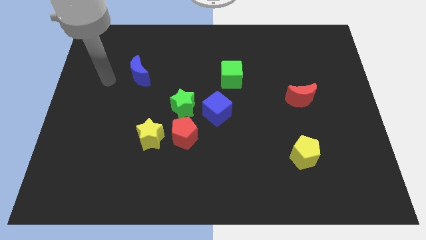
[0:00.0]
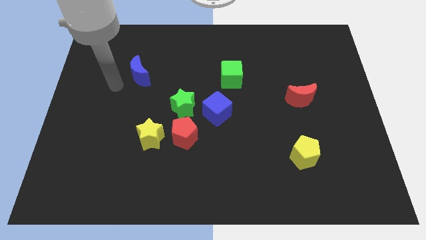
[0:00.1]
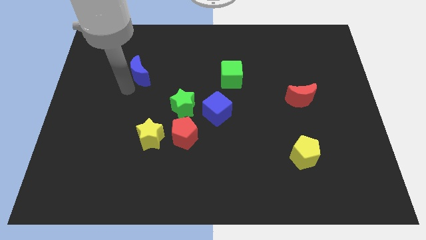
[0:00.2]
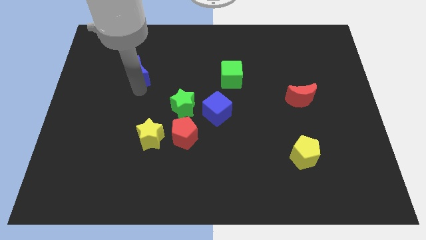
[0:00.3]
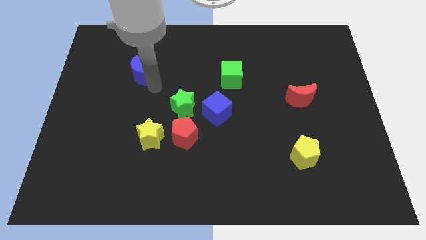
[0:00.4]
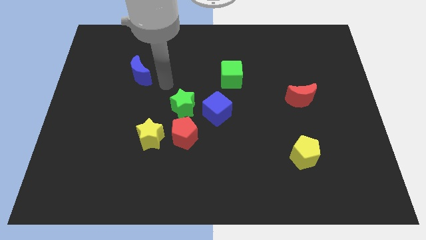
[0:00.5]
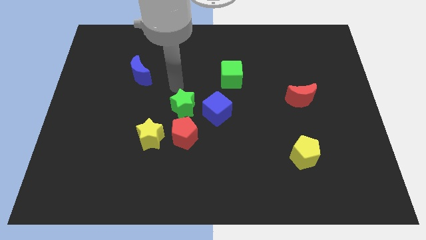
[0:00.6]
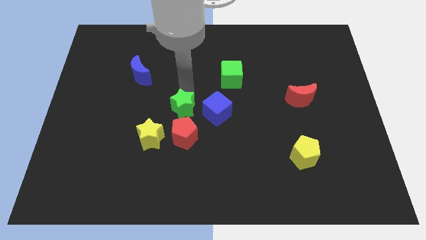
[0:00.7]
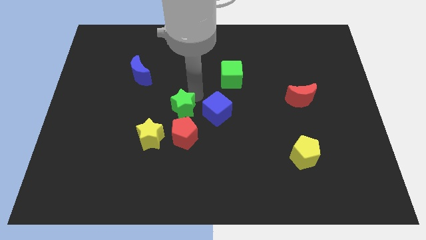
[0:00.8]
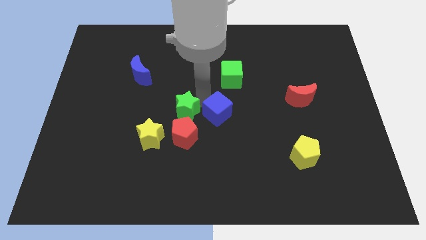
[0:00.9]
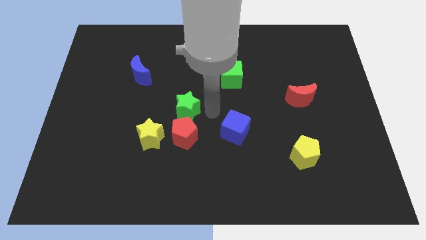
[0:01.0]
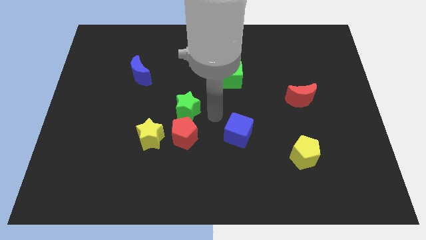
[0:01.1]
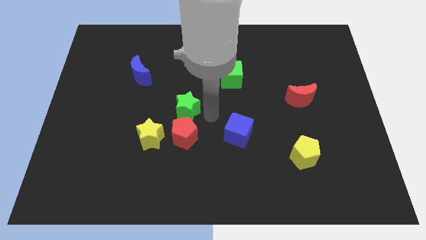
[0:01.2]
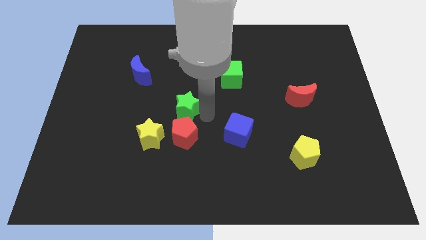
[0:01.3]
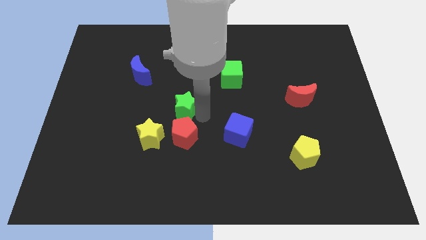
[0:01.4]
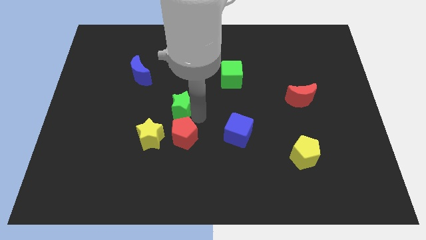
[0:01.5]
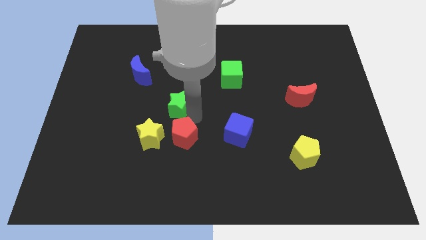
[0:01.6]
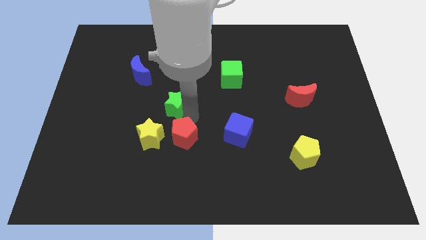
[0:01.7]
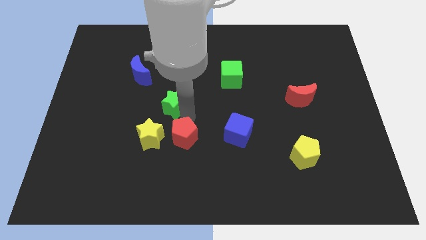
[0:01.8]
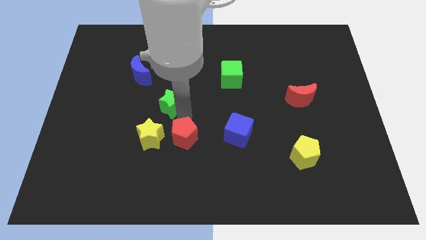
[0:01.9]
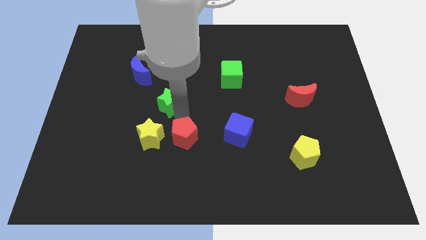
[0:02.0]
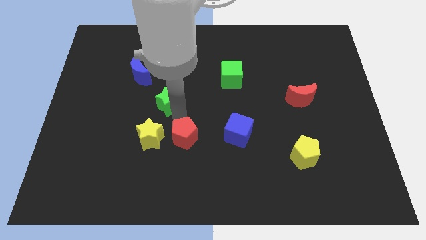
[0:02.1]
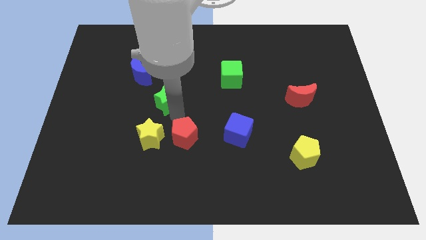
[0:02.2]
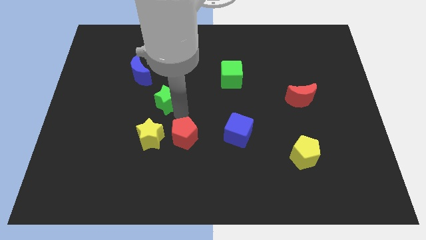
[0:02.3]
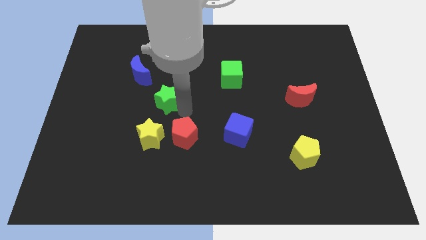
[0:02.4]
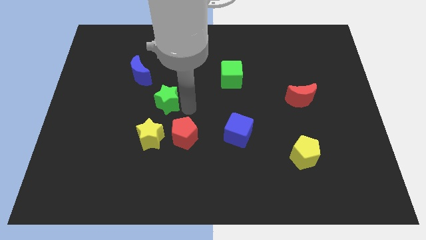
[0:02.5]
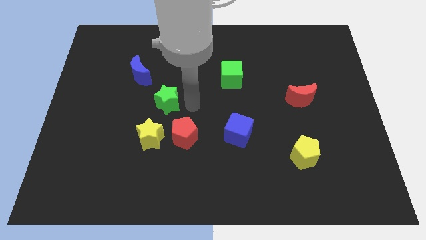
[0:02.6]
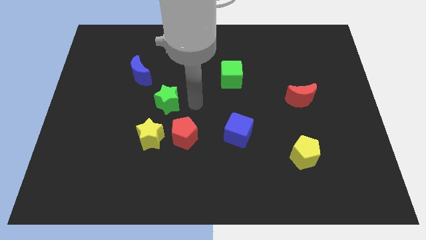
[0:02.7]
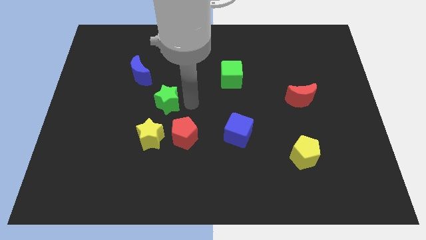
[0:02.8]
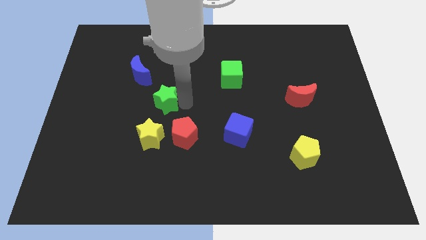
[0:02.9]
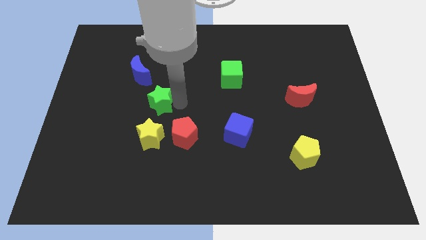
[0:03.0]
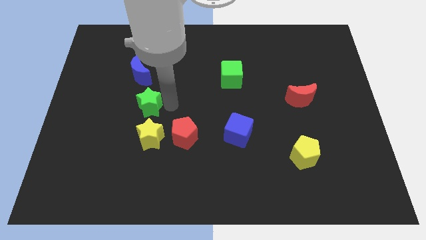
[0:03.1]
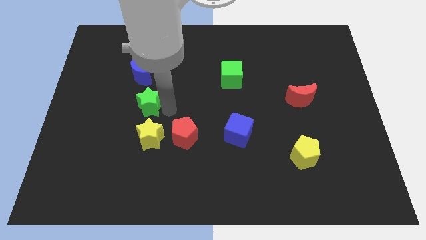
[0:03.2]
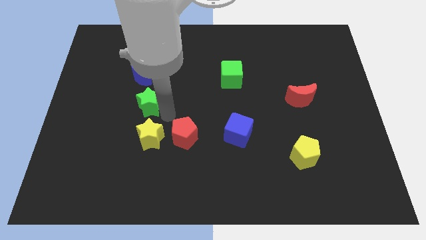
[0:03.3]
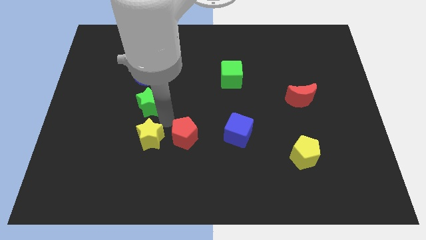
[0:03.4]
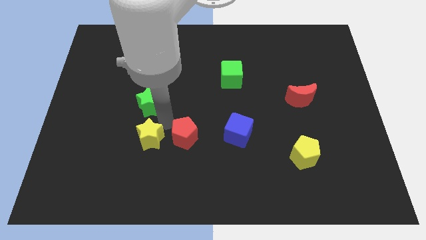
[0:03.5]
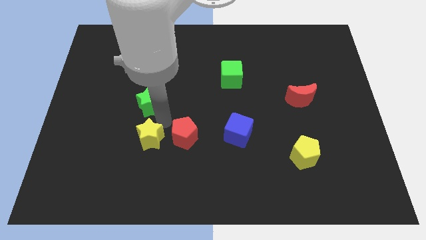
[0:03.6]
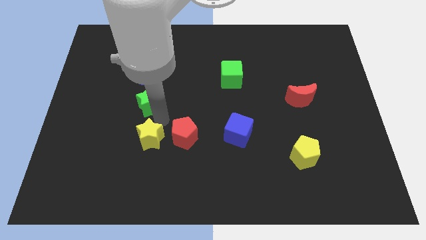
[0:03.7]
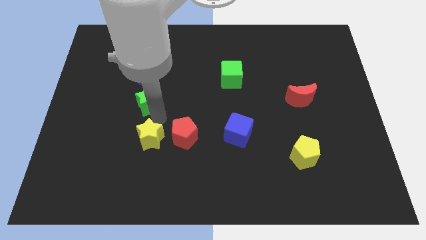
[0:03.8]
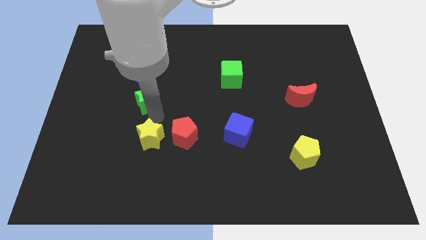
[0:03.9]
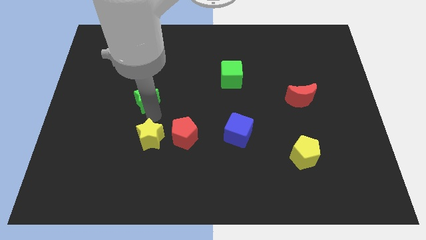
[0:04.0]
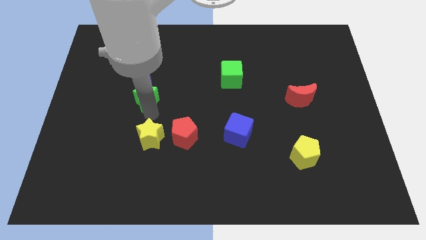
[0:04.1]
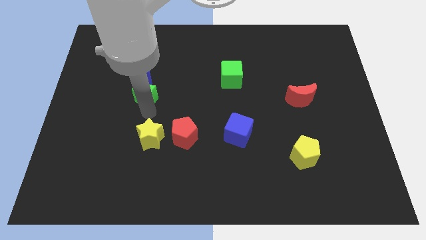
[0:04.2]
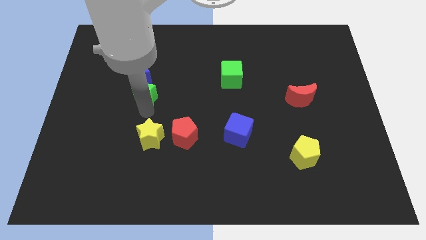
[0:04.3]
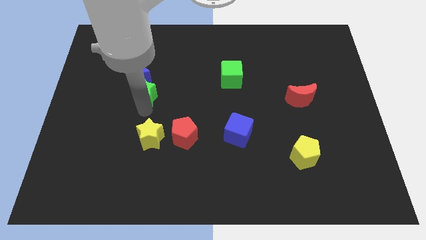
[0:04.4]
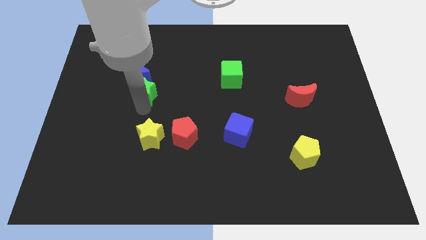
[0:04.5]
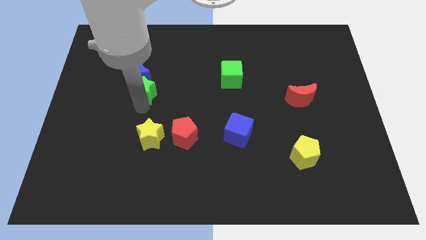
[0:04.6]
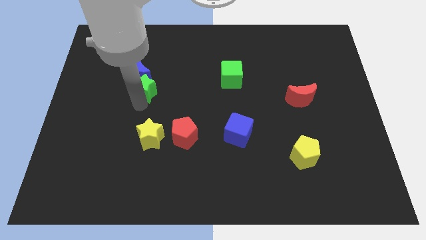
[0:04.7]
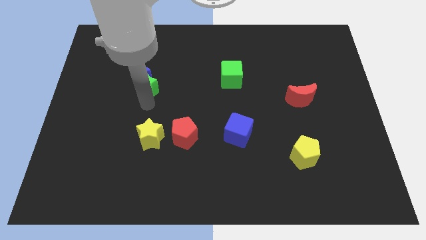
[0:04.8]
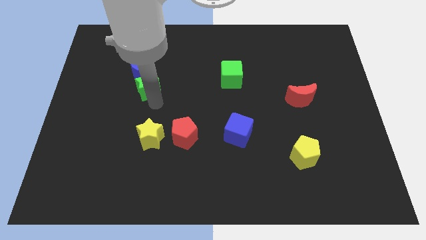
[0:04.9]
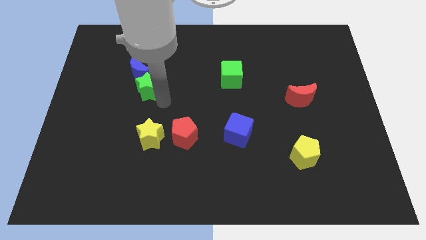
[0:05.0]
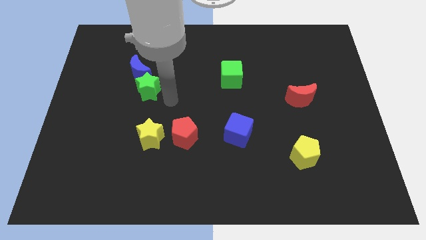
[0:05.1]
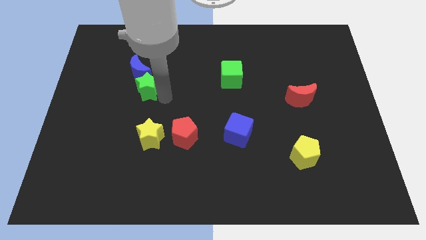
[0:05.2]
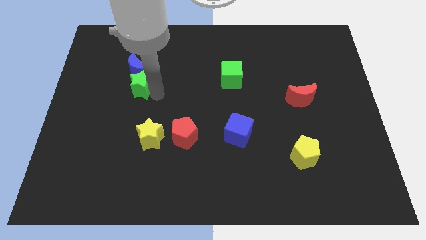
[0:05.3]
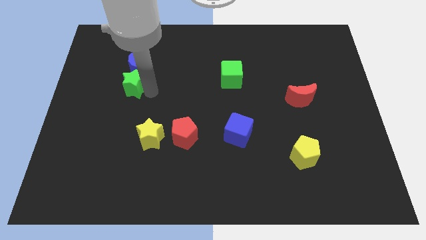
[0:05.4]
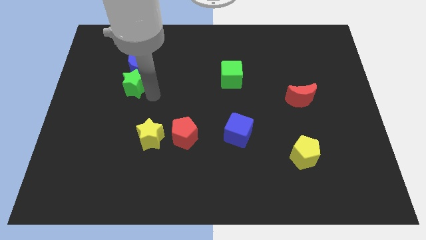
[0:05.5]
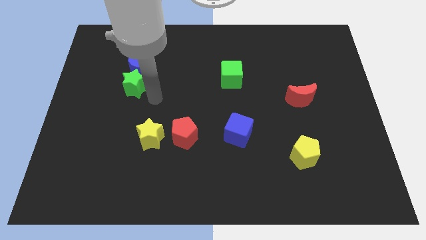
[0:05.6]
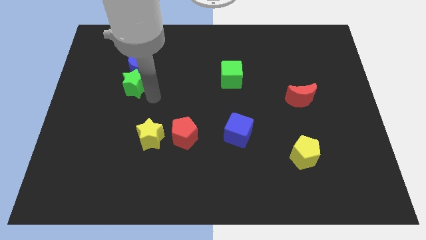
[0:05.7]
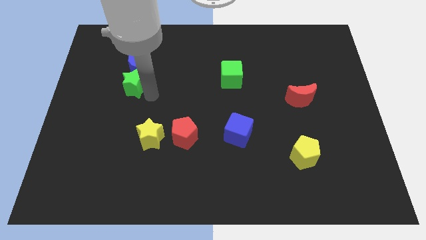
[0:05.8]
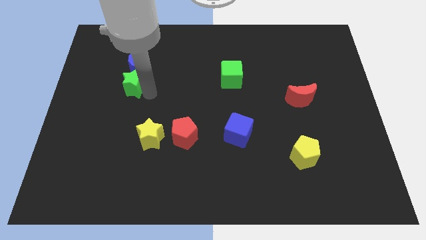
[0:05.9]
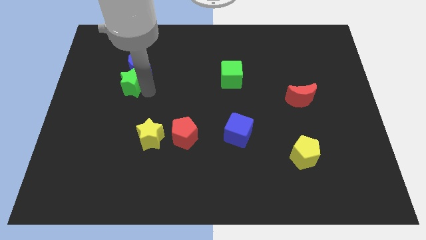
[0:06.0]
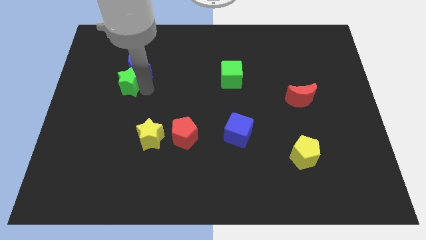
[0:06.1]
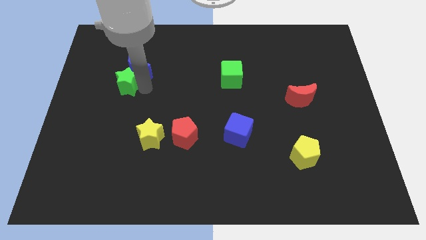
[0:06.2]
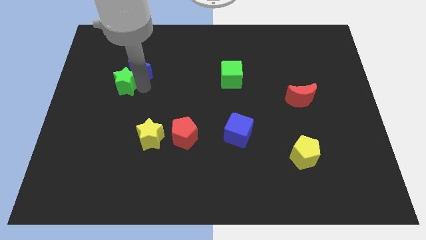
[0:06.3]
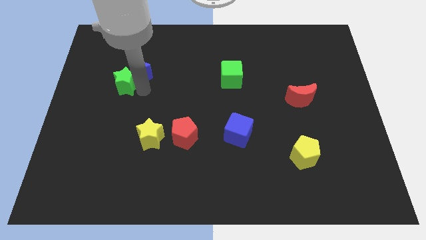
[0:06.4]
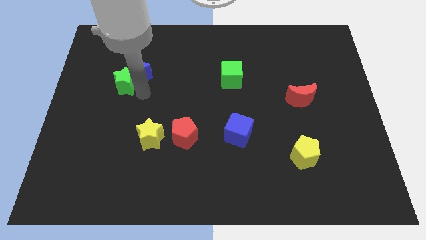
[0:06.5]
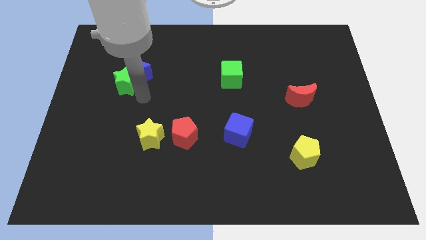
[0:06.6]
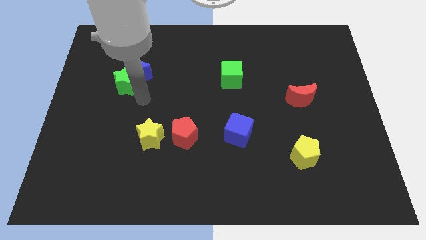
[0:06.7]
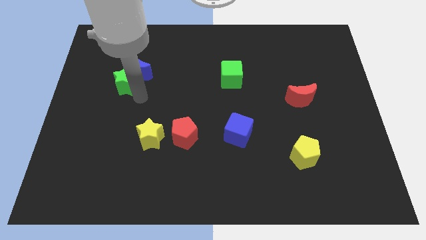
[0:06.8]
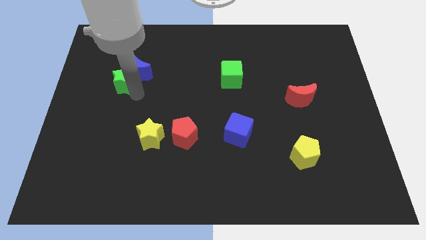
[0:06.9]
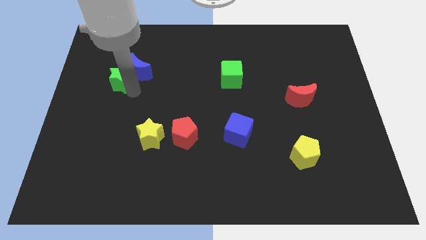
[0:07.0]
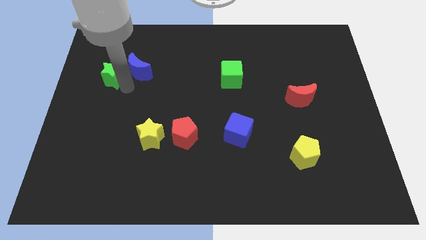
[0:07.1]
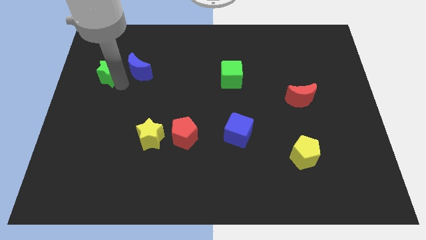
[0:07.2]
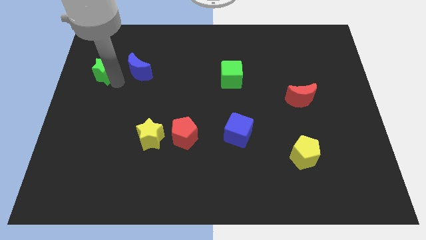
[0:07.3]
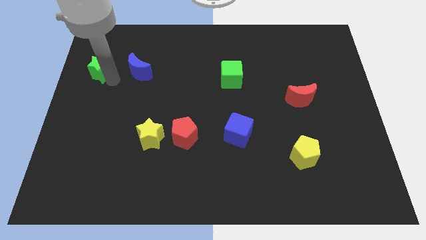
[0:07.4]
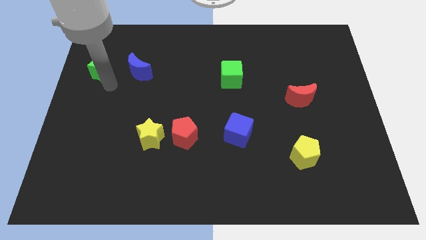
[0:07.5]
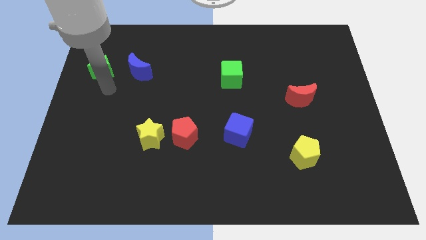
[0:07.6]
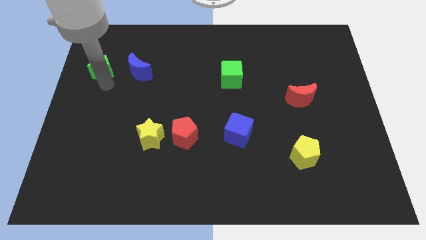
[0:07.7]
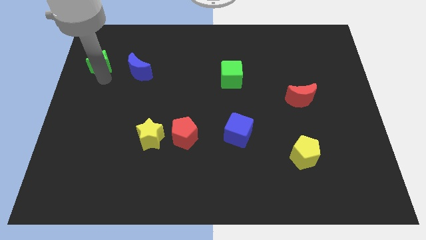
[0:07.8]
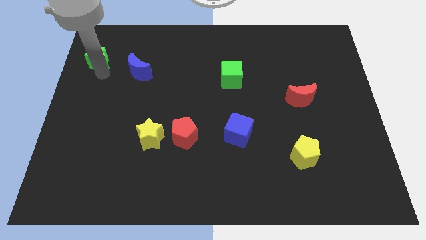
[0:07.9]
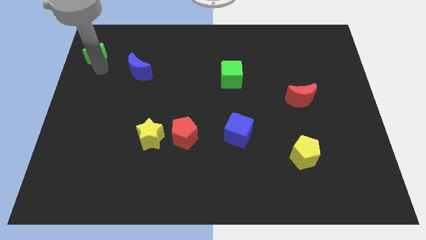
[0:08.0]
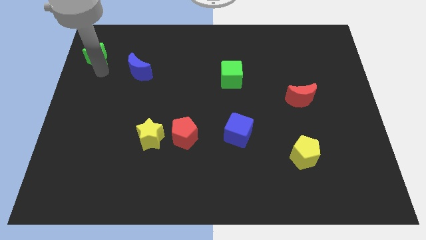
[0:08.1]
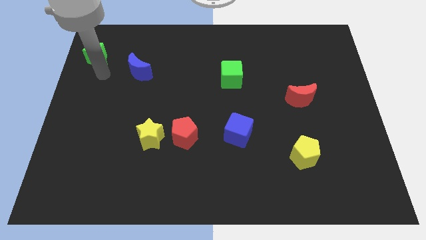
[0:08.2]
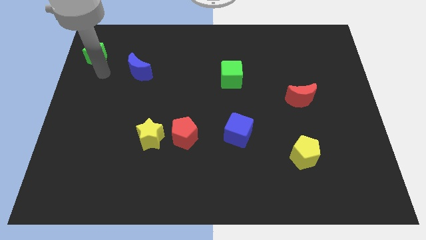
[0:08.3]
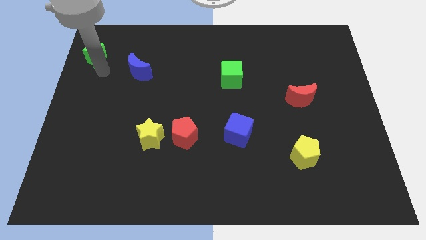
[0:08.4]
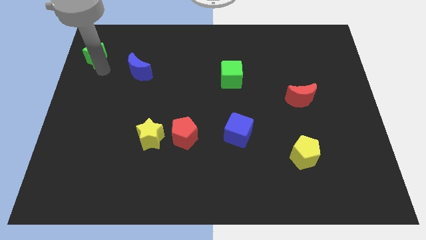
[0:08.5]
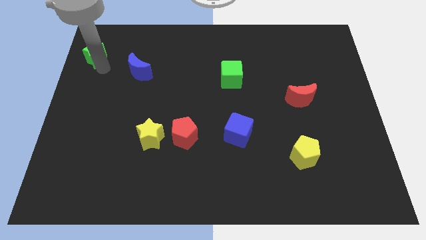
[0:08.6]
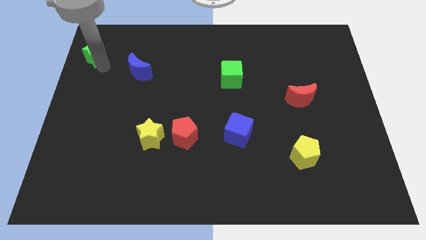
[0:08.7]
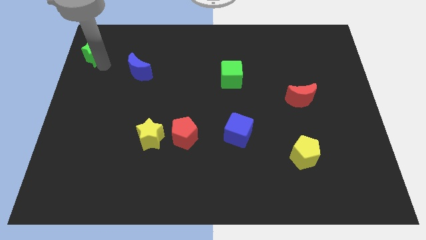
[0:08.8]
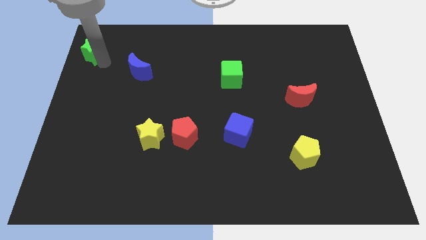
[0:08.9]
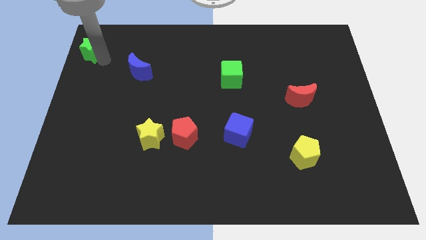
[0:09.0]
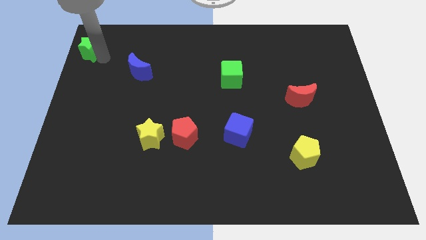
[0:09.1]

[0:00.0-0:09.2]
slide the green star to the top left corner
